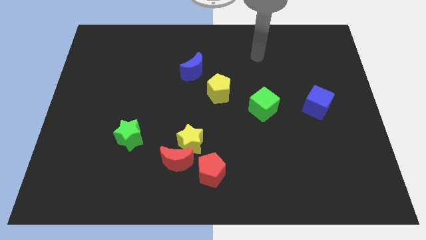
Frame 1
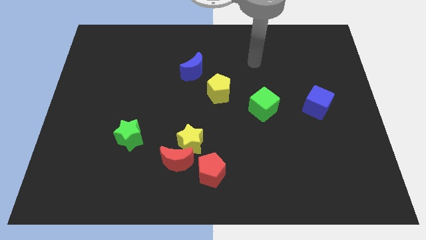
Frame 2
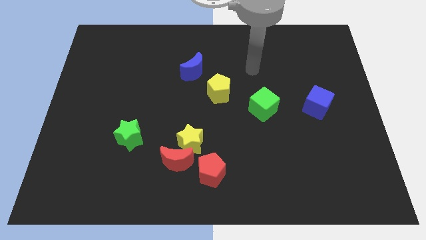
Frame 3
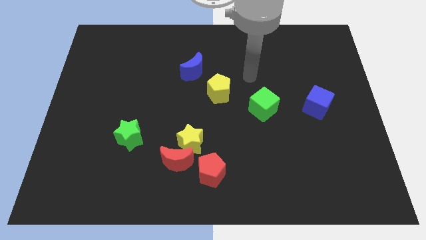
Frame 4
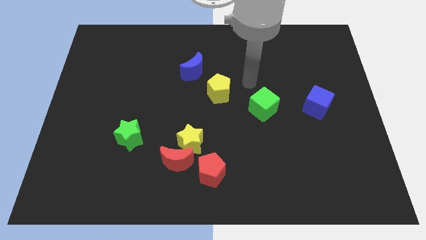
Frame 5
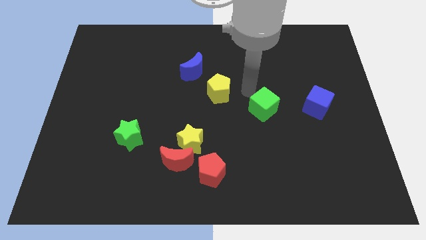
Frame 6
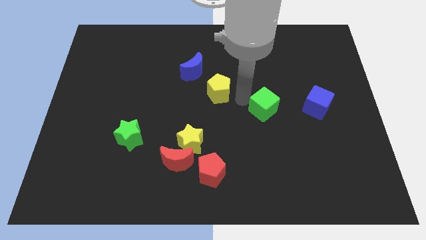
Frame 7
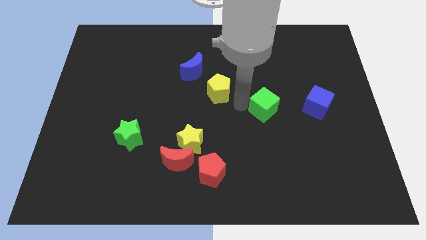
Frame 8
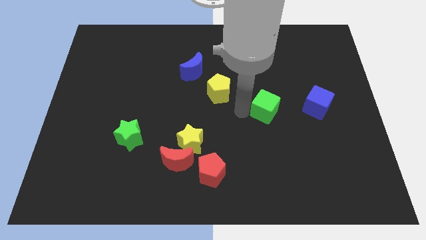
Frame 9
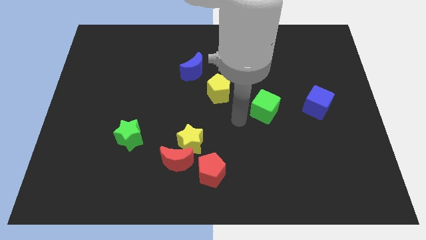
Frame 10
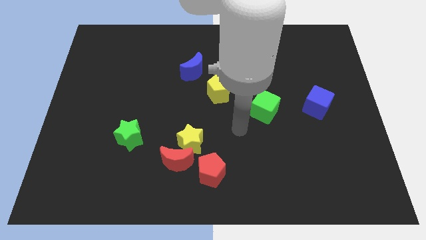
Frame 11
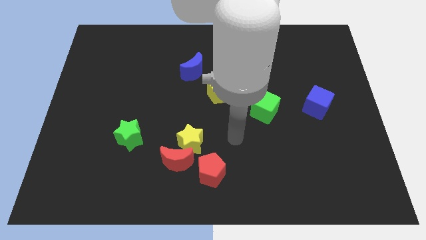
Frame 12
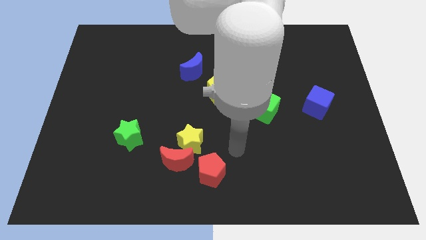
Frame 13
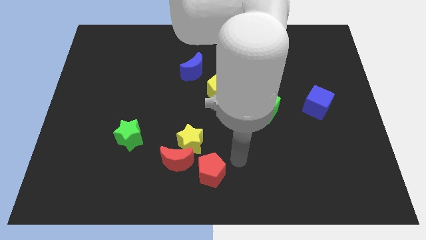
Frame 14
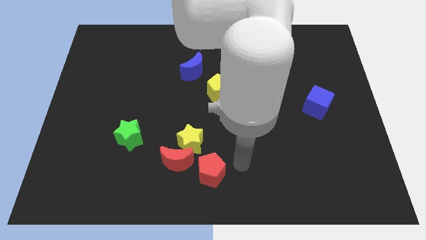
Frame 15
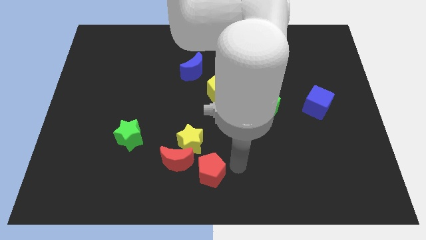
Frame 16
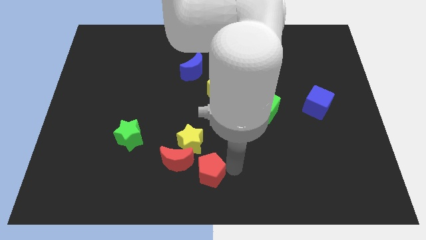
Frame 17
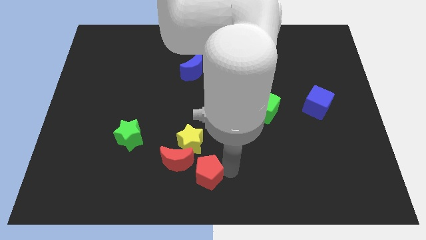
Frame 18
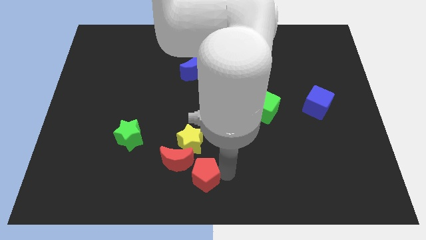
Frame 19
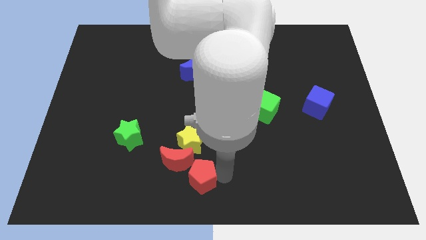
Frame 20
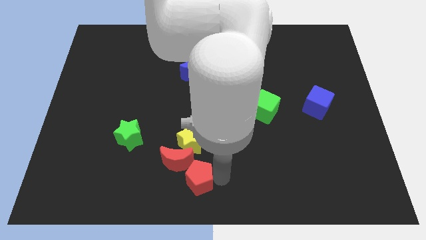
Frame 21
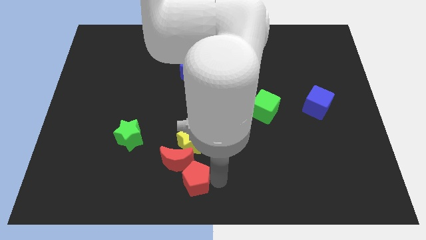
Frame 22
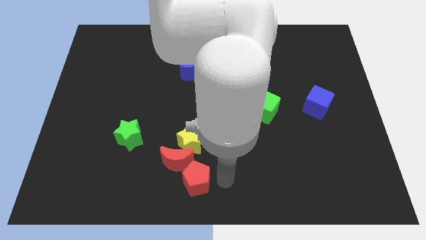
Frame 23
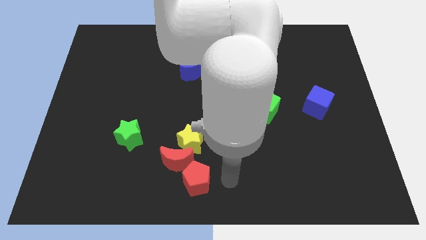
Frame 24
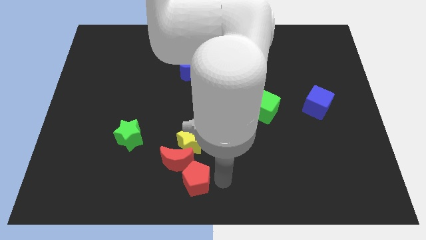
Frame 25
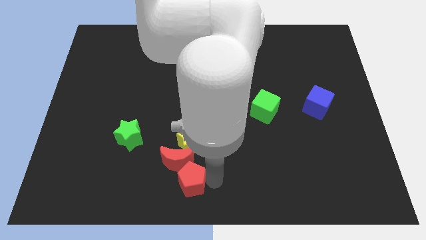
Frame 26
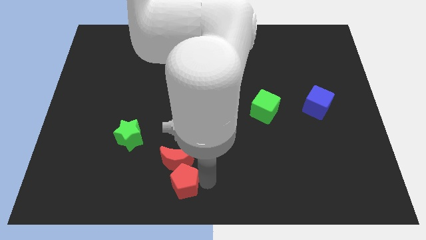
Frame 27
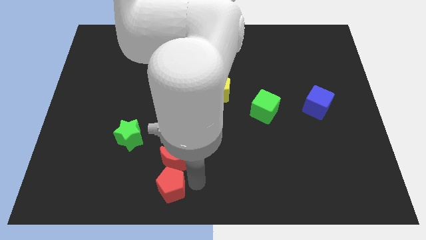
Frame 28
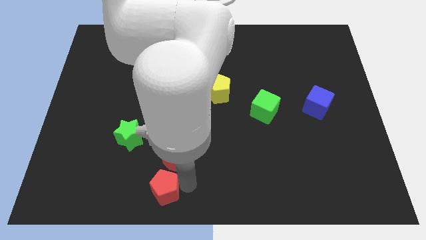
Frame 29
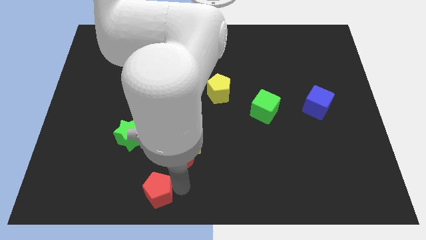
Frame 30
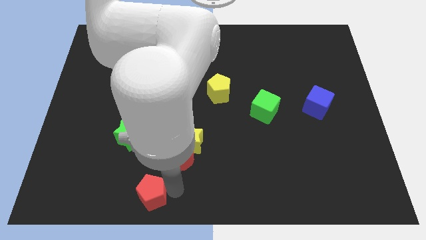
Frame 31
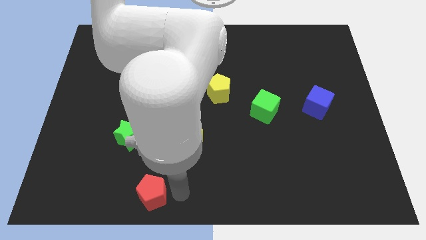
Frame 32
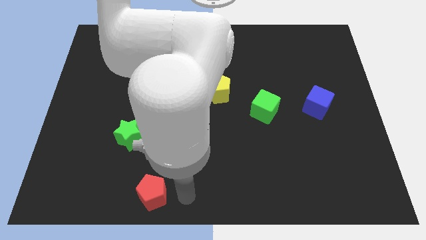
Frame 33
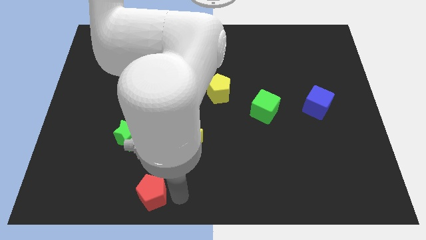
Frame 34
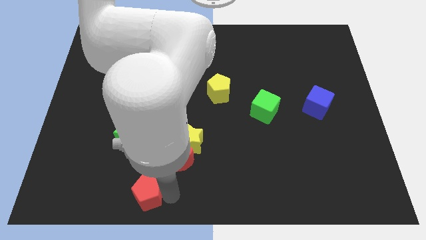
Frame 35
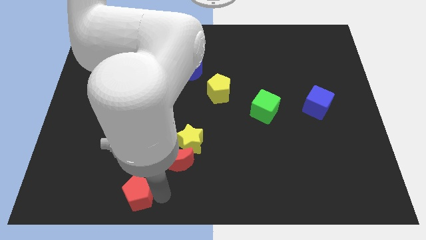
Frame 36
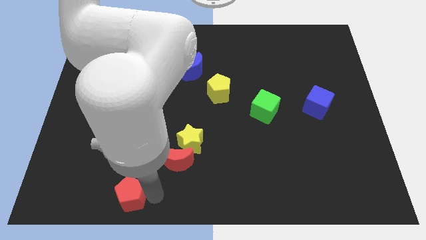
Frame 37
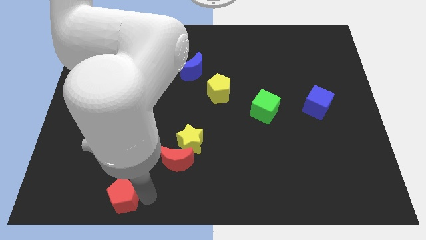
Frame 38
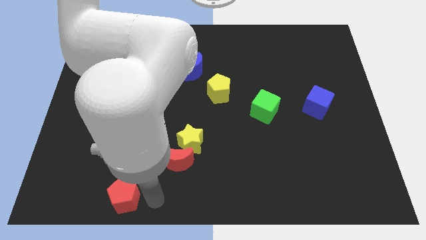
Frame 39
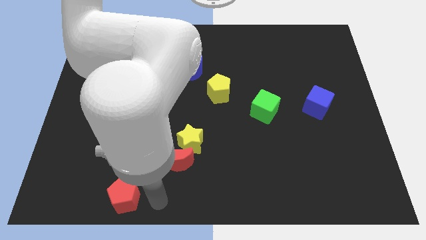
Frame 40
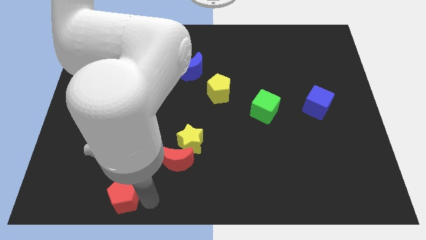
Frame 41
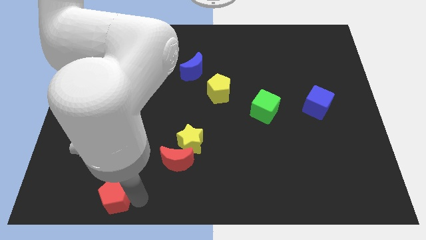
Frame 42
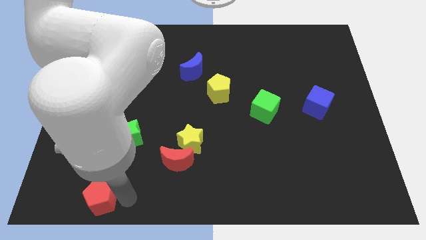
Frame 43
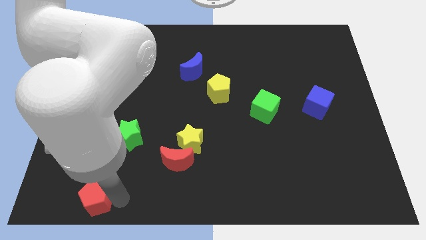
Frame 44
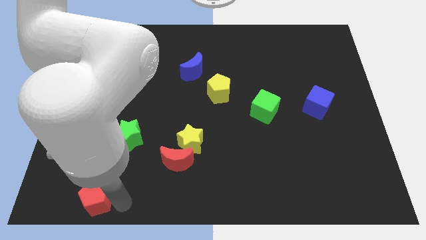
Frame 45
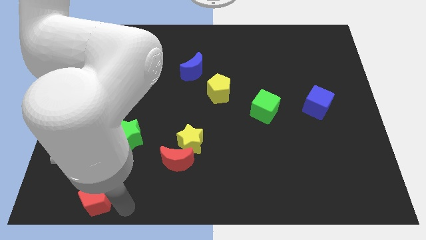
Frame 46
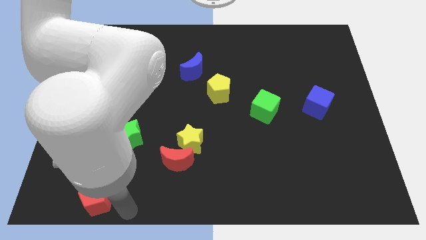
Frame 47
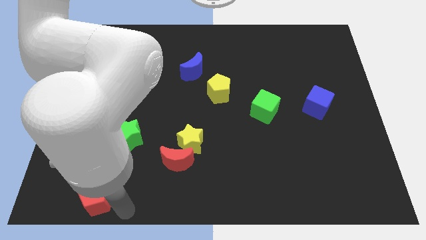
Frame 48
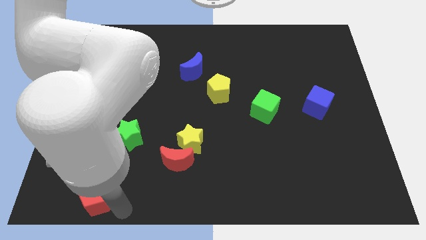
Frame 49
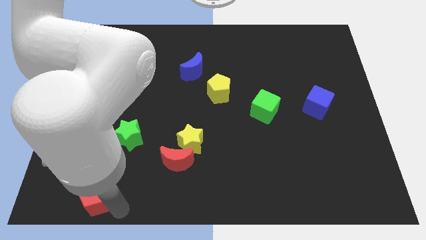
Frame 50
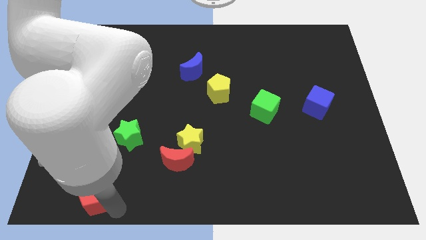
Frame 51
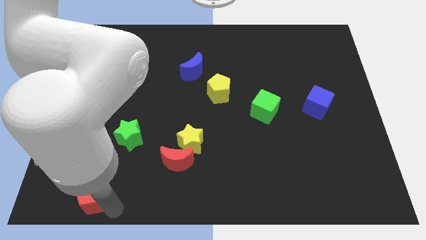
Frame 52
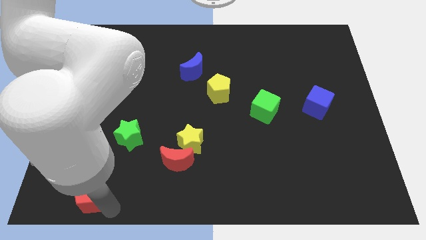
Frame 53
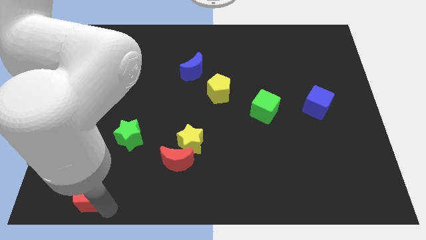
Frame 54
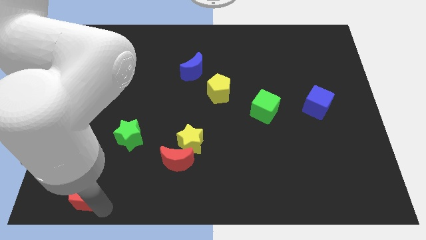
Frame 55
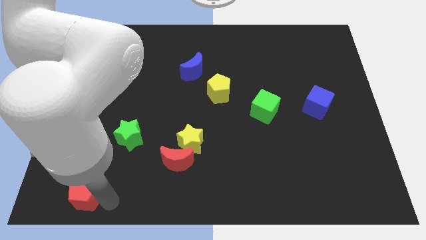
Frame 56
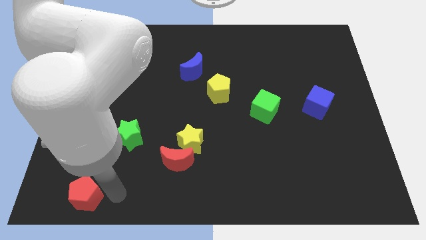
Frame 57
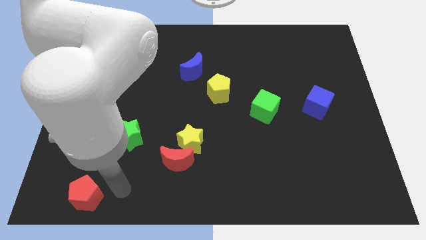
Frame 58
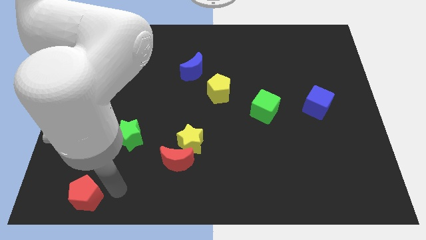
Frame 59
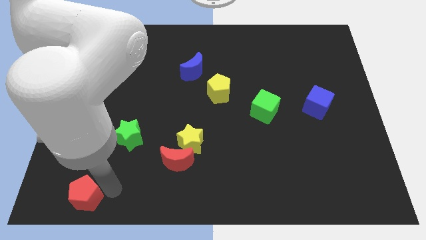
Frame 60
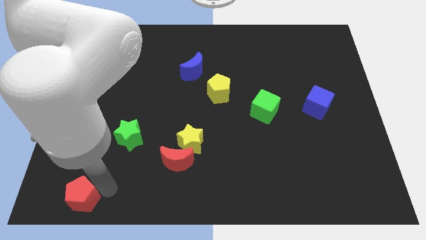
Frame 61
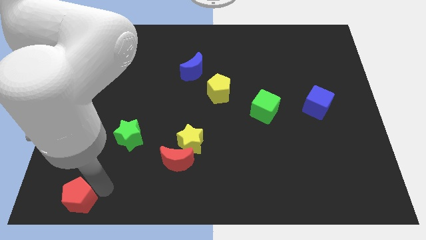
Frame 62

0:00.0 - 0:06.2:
push the red pentagon to the bottom left of the board
